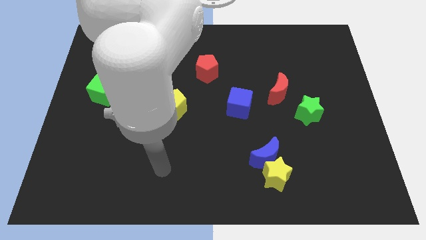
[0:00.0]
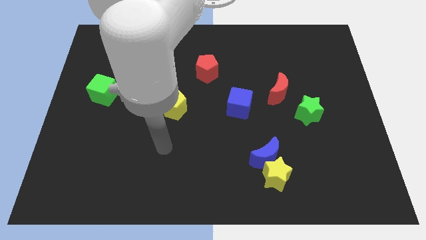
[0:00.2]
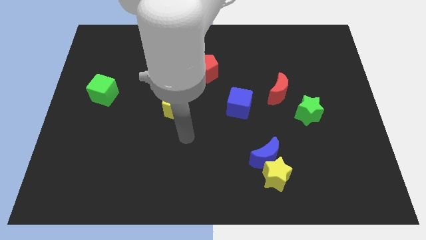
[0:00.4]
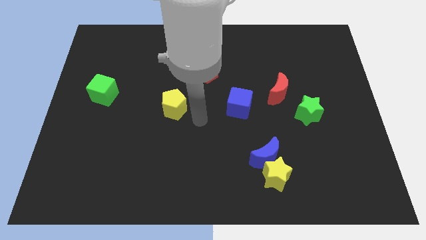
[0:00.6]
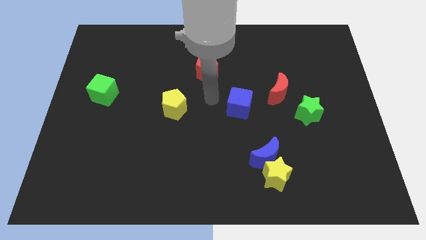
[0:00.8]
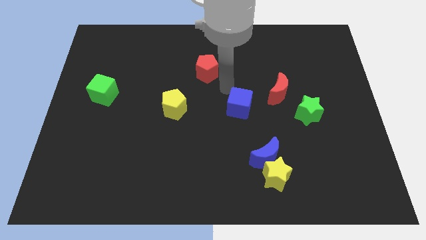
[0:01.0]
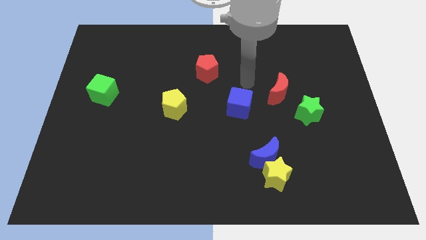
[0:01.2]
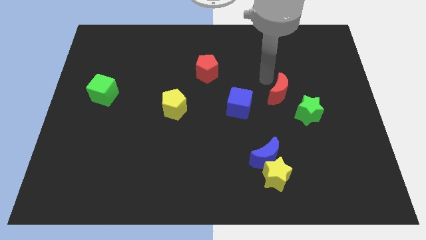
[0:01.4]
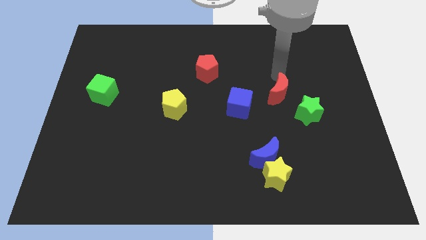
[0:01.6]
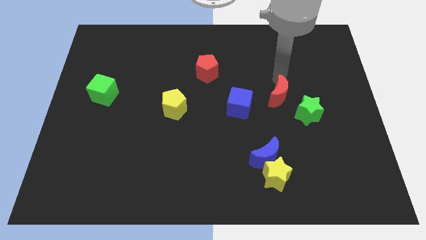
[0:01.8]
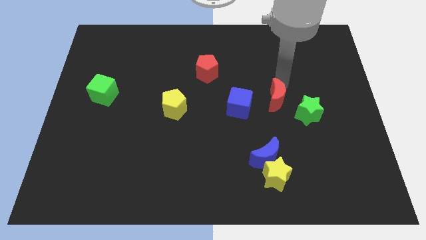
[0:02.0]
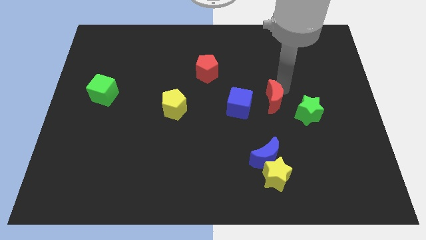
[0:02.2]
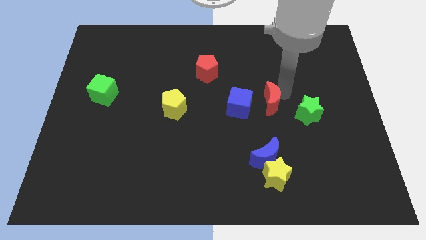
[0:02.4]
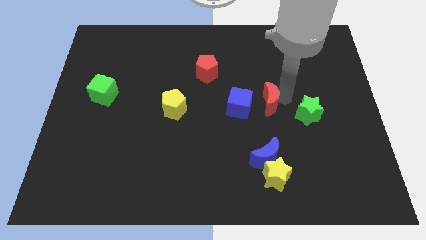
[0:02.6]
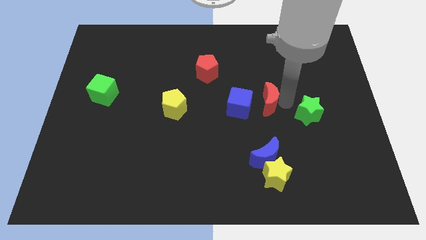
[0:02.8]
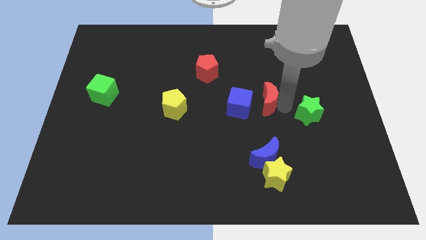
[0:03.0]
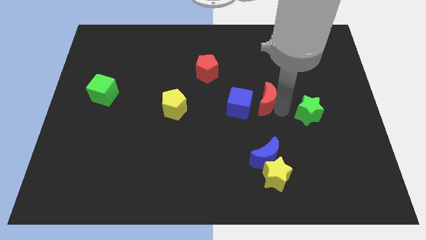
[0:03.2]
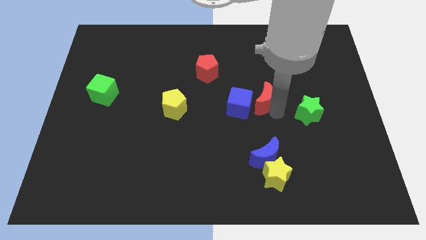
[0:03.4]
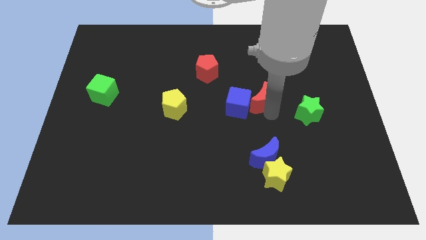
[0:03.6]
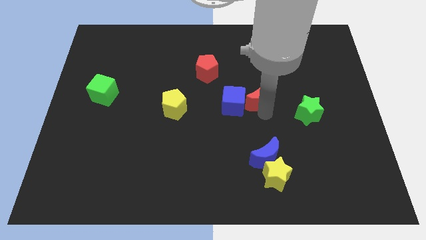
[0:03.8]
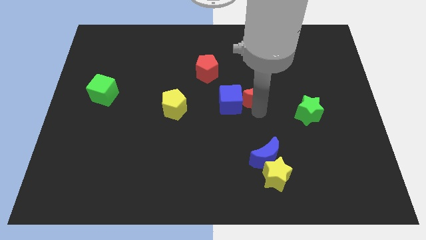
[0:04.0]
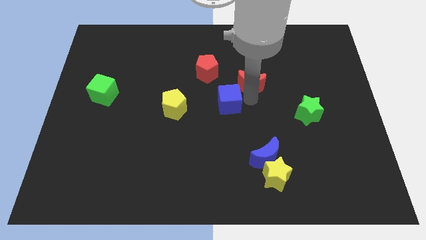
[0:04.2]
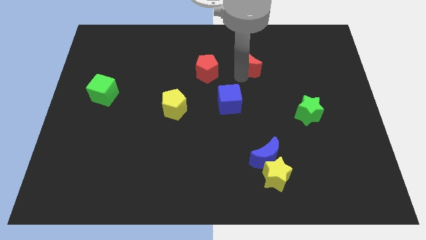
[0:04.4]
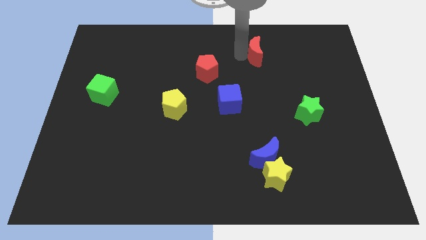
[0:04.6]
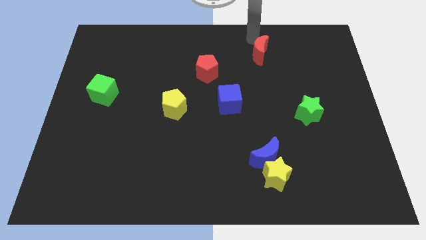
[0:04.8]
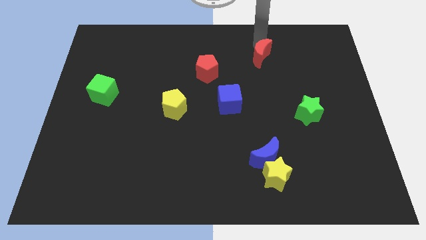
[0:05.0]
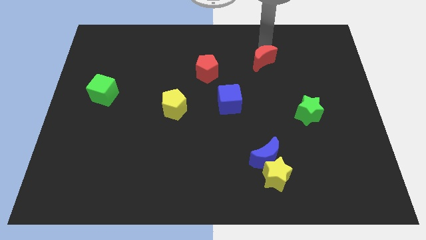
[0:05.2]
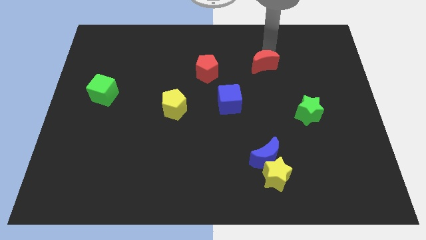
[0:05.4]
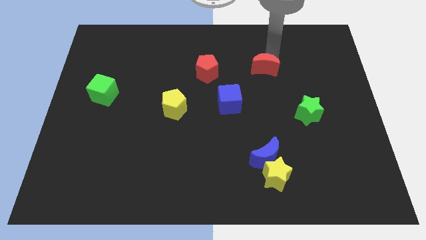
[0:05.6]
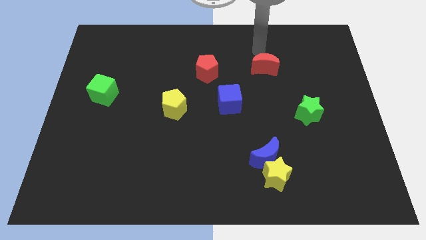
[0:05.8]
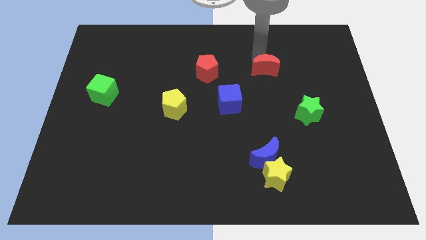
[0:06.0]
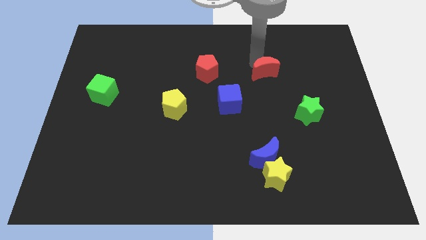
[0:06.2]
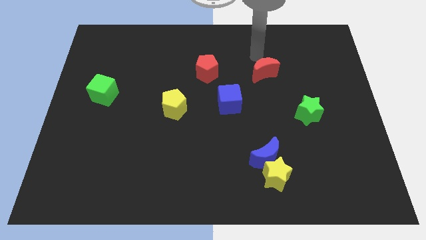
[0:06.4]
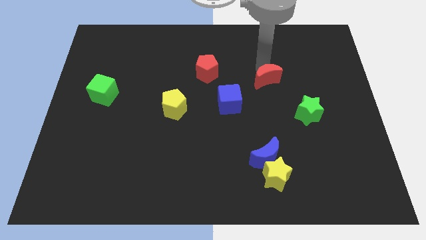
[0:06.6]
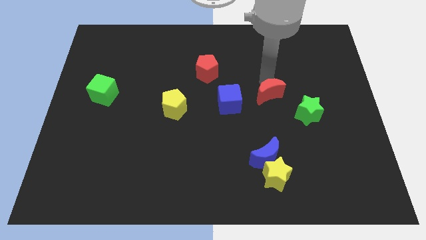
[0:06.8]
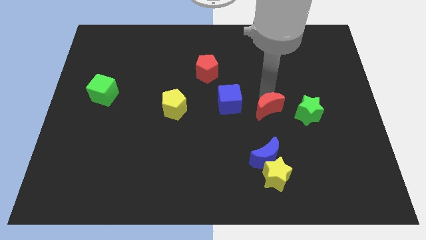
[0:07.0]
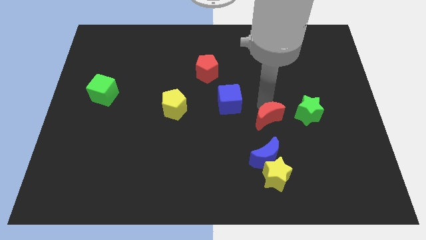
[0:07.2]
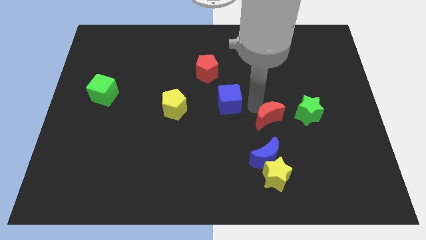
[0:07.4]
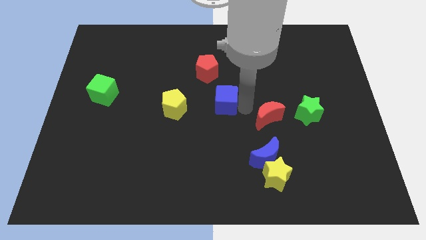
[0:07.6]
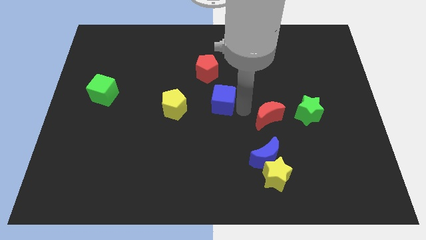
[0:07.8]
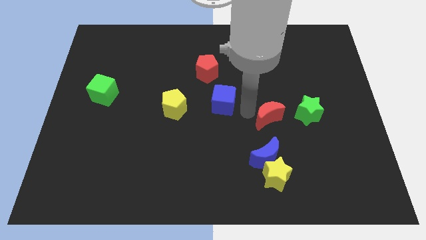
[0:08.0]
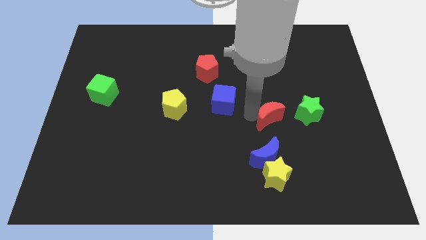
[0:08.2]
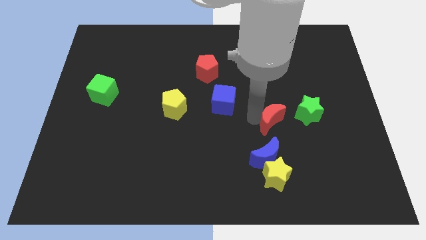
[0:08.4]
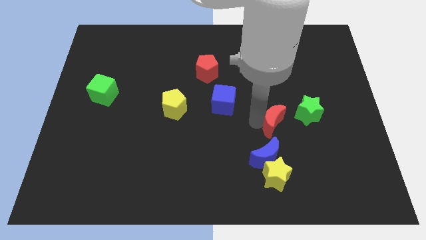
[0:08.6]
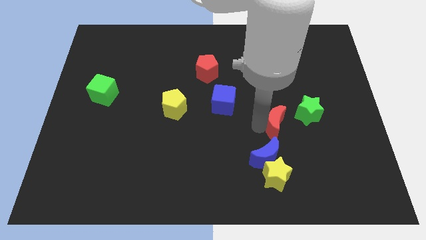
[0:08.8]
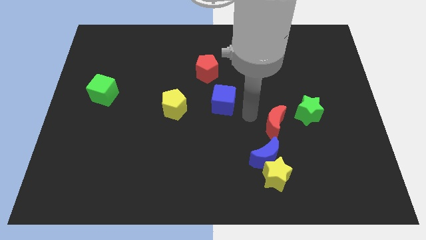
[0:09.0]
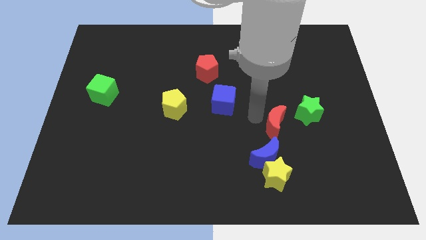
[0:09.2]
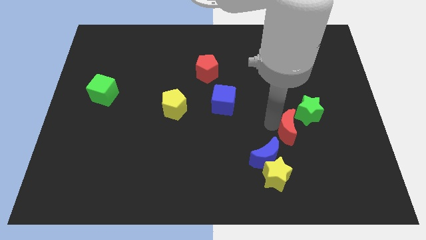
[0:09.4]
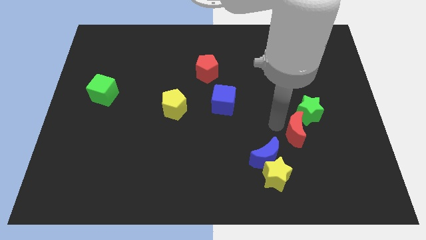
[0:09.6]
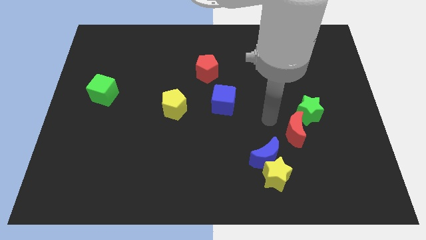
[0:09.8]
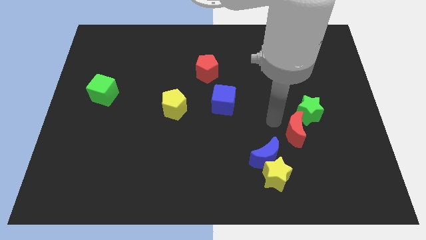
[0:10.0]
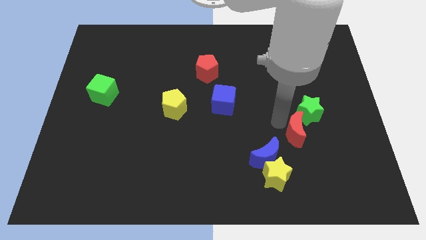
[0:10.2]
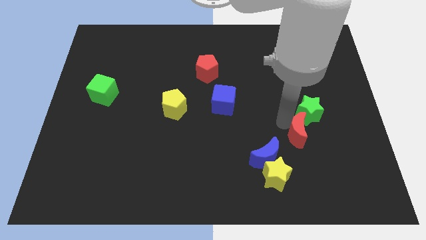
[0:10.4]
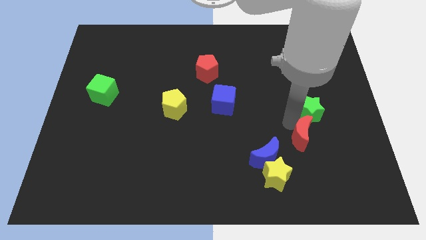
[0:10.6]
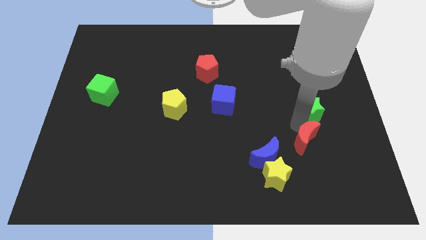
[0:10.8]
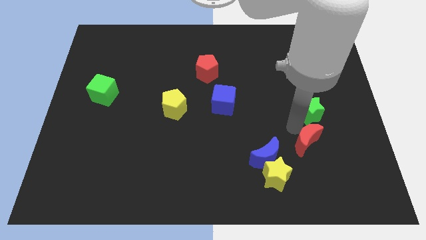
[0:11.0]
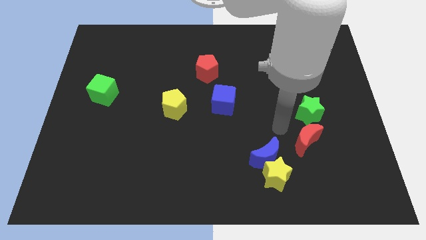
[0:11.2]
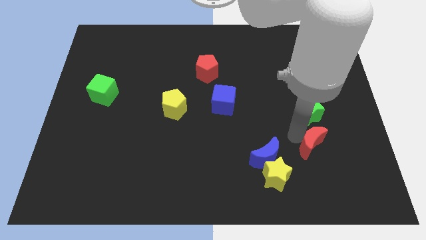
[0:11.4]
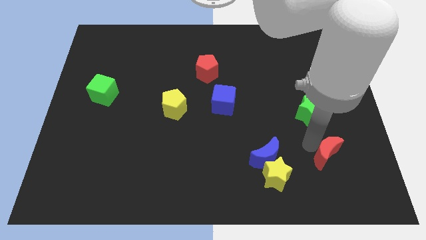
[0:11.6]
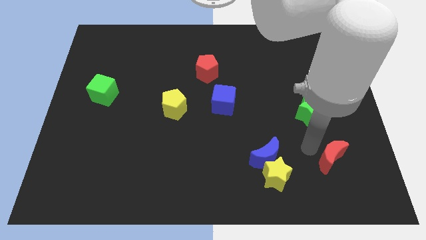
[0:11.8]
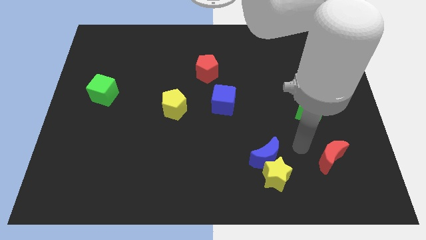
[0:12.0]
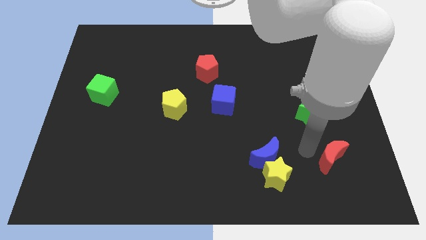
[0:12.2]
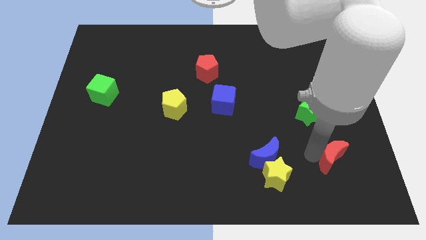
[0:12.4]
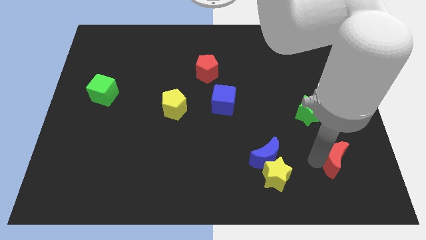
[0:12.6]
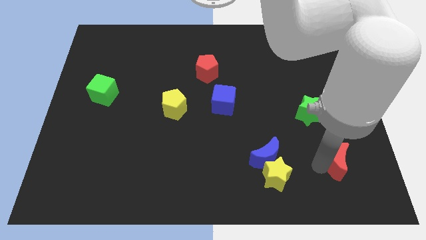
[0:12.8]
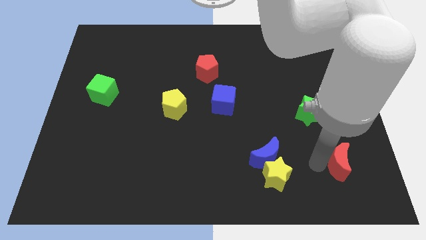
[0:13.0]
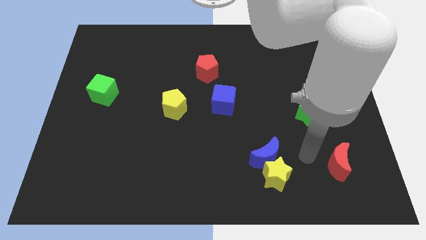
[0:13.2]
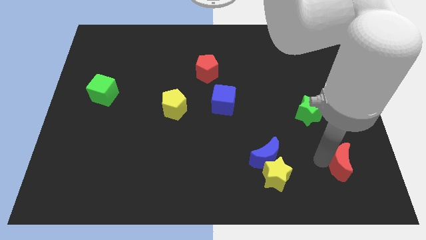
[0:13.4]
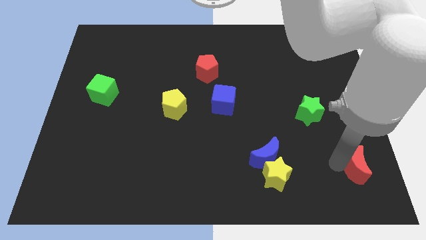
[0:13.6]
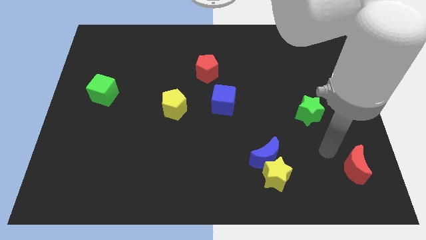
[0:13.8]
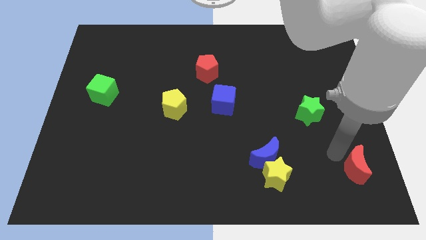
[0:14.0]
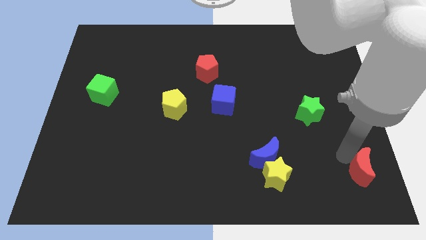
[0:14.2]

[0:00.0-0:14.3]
slide the red moon to the bottom right corner
